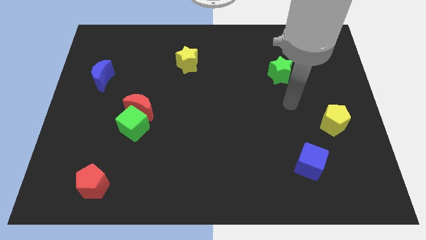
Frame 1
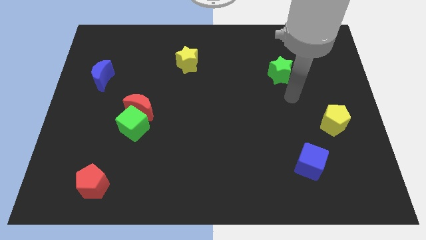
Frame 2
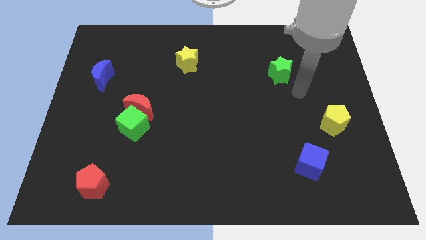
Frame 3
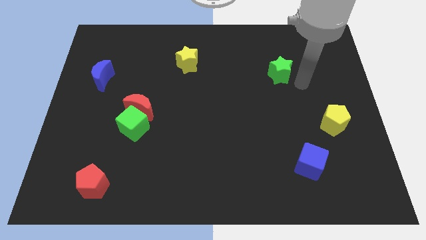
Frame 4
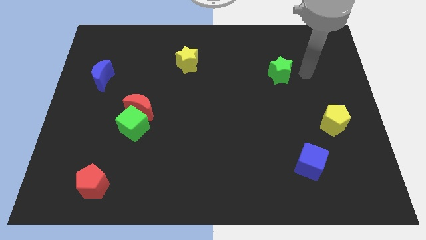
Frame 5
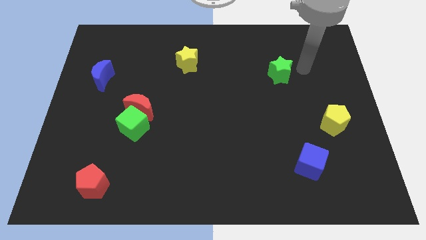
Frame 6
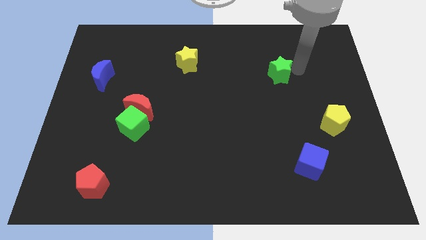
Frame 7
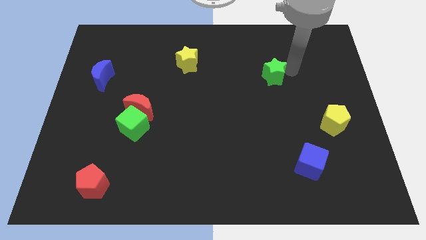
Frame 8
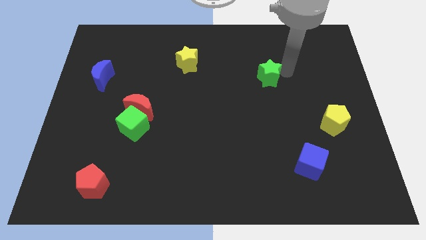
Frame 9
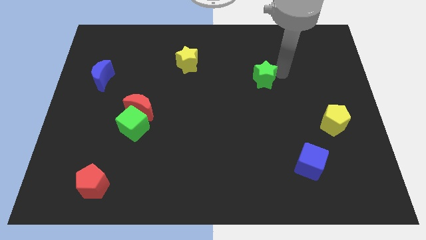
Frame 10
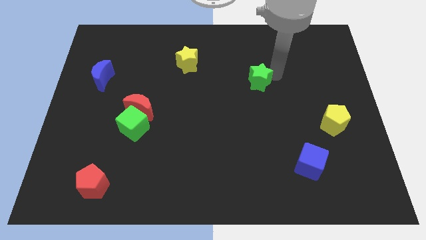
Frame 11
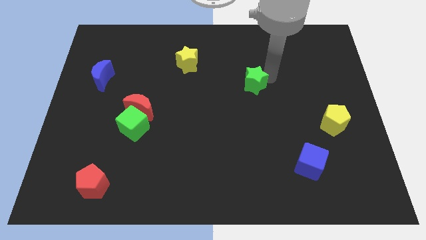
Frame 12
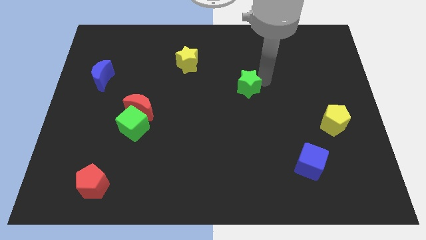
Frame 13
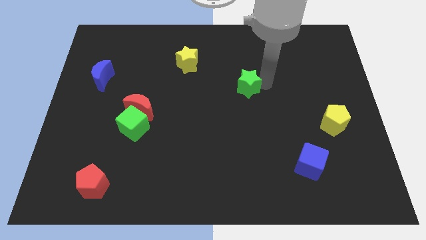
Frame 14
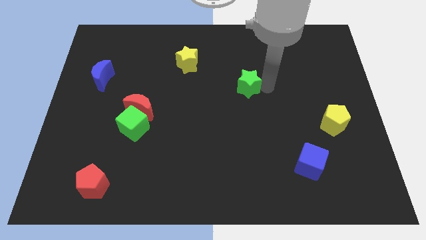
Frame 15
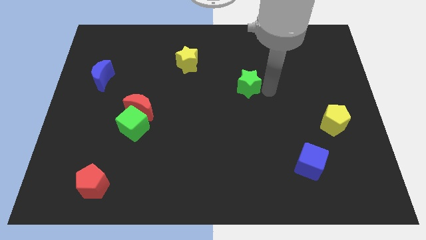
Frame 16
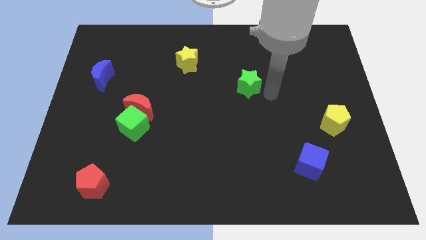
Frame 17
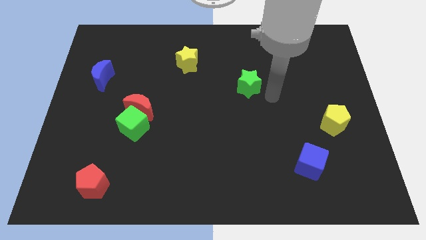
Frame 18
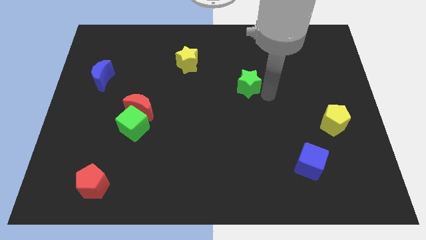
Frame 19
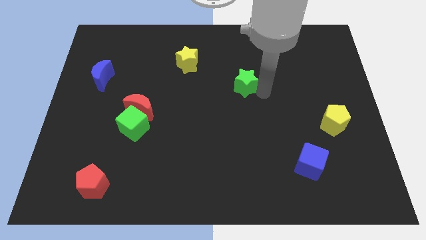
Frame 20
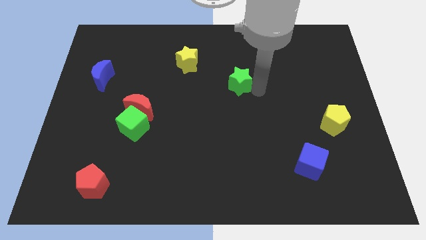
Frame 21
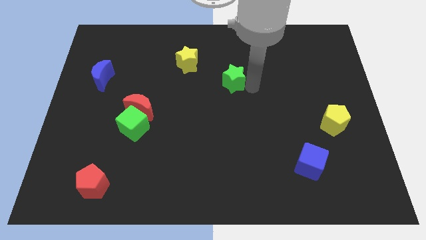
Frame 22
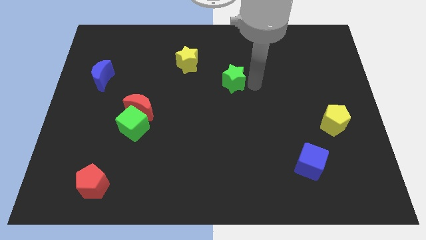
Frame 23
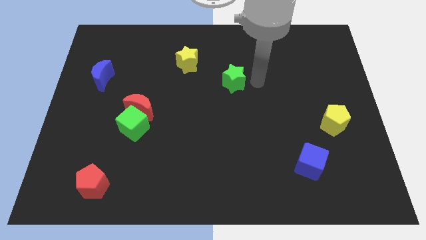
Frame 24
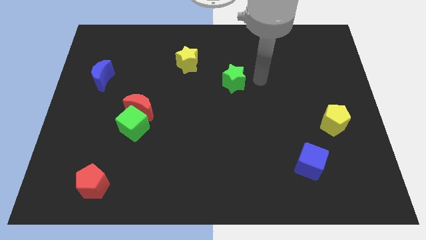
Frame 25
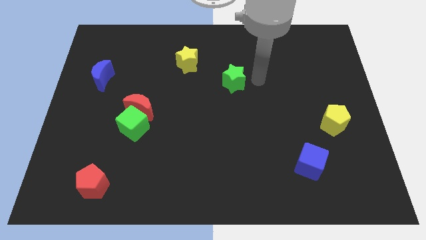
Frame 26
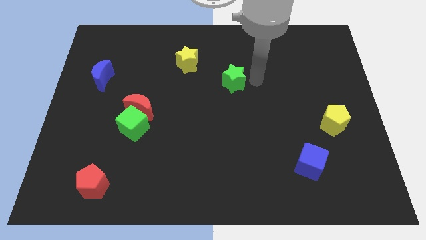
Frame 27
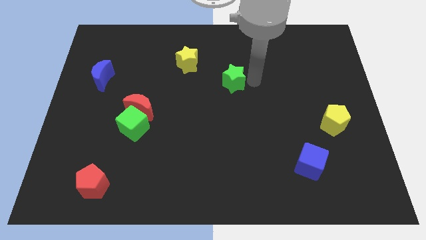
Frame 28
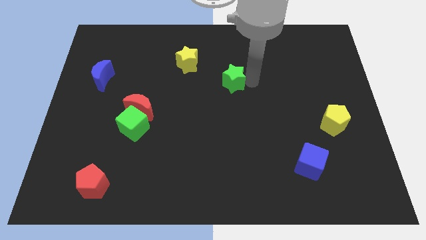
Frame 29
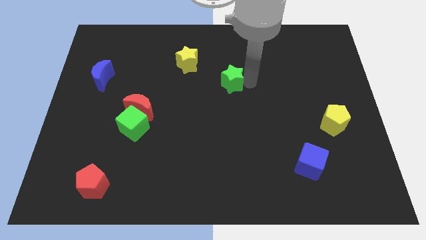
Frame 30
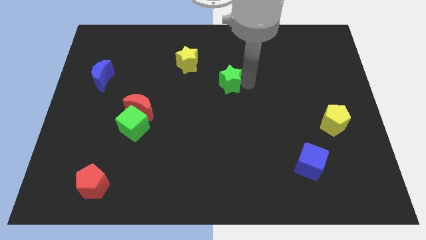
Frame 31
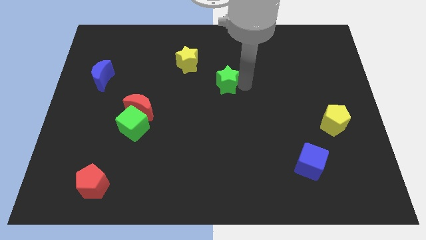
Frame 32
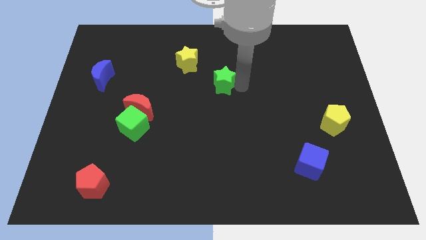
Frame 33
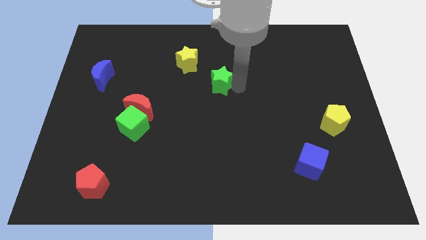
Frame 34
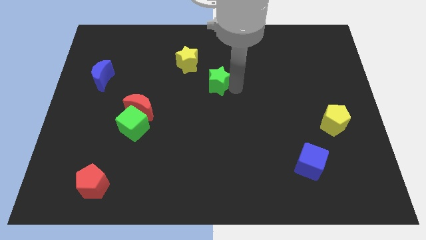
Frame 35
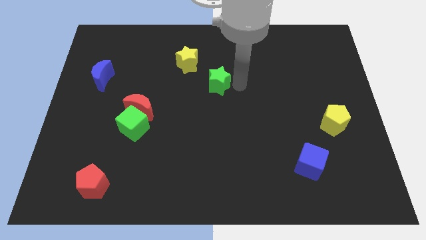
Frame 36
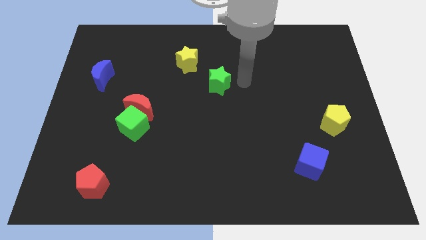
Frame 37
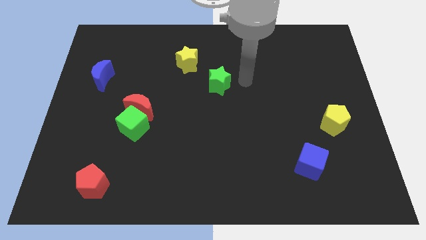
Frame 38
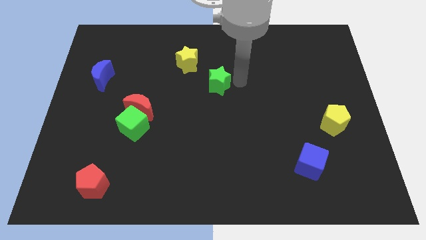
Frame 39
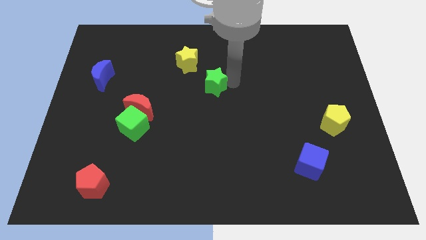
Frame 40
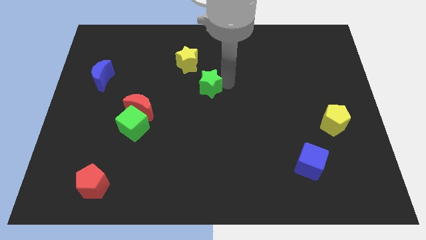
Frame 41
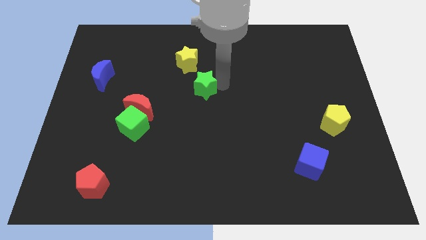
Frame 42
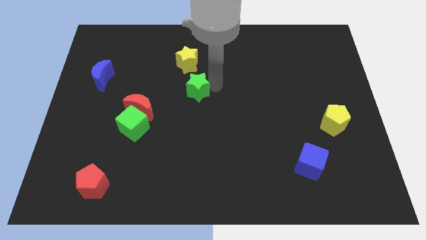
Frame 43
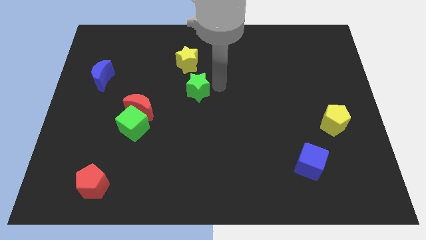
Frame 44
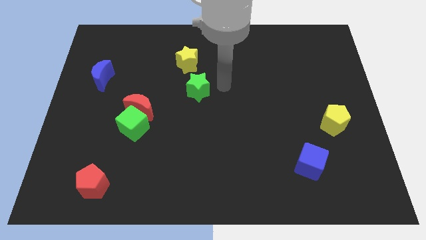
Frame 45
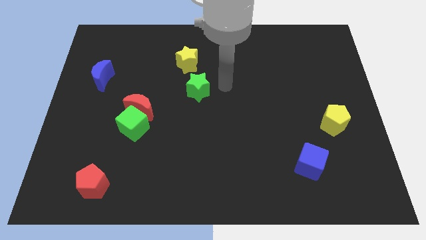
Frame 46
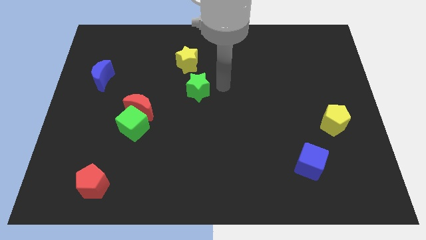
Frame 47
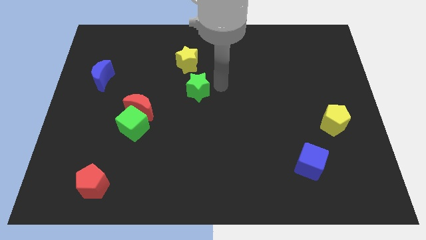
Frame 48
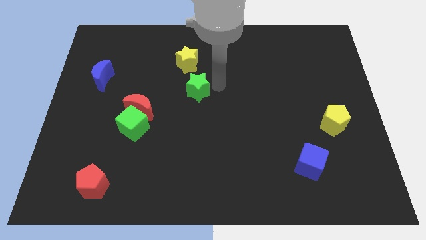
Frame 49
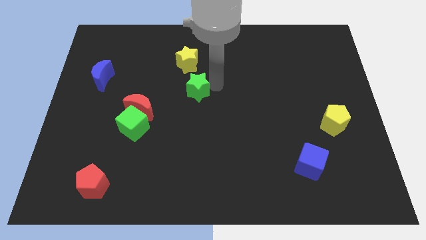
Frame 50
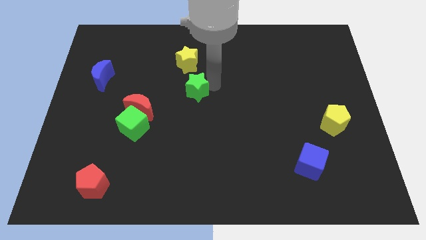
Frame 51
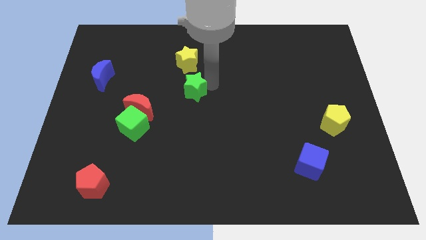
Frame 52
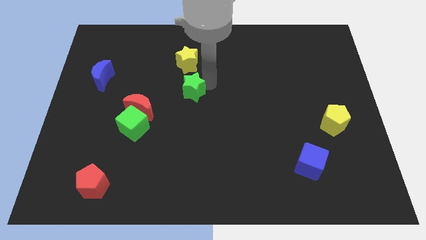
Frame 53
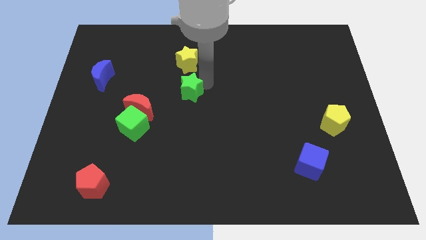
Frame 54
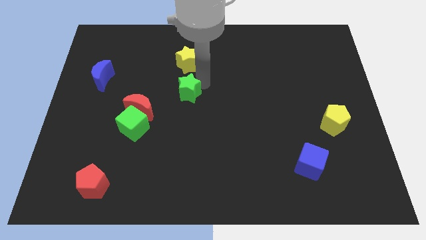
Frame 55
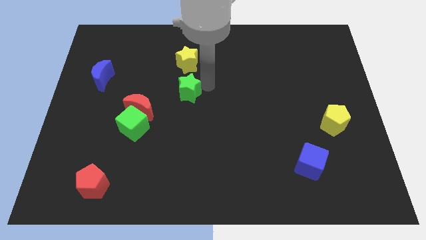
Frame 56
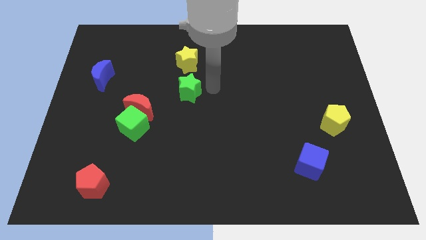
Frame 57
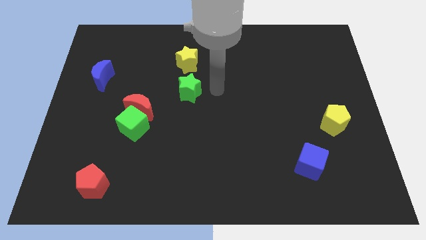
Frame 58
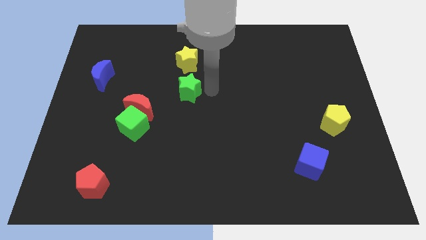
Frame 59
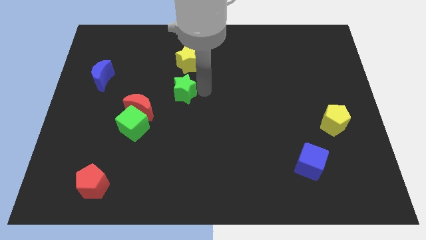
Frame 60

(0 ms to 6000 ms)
push the green star to the top right of the red moon

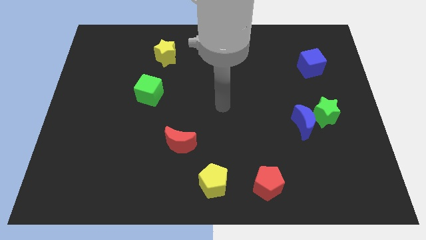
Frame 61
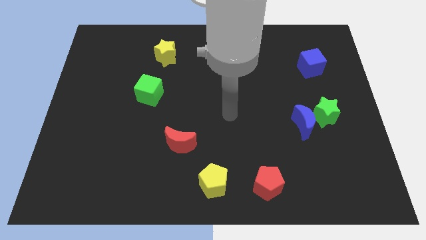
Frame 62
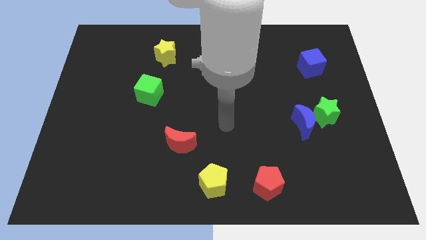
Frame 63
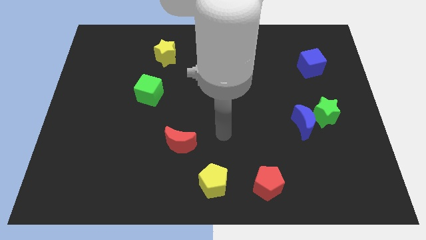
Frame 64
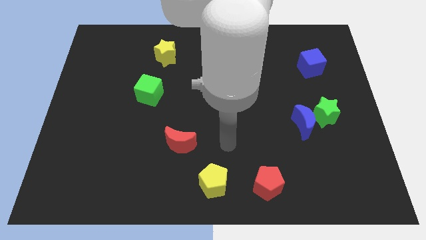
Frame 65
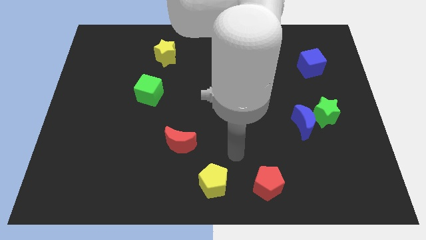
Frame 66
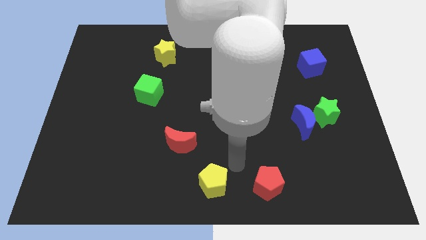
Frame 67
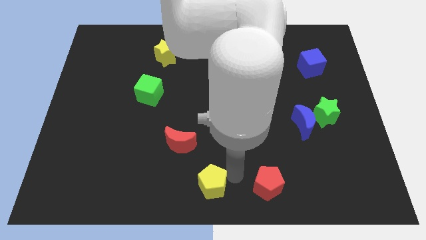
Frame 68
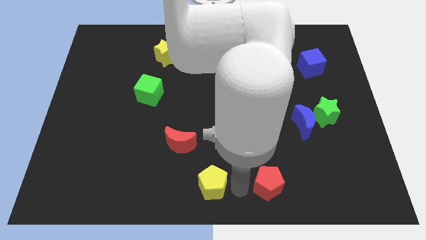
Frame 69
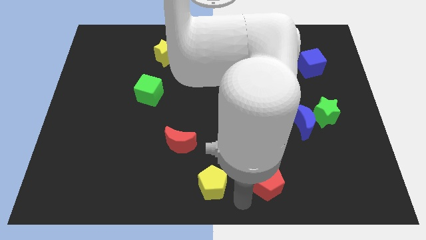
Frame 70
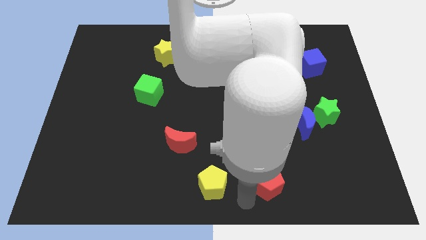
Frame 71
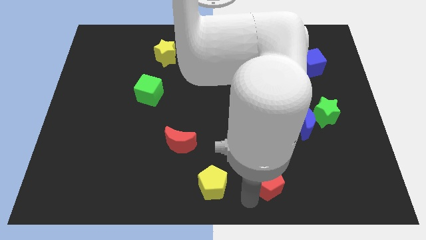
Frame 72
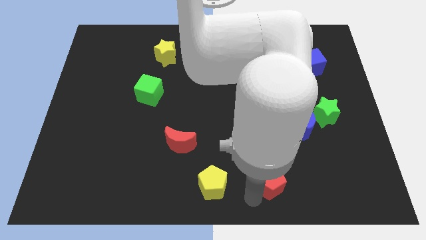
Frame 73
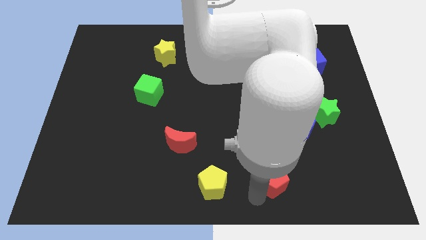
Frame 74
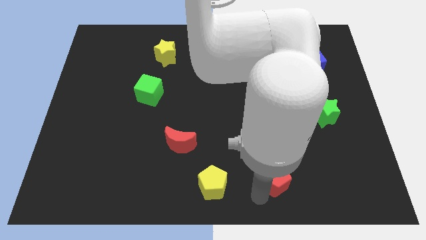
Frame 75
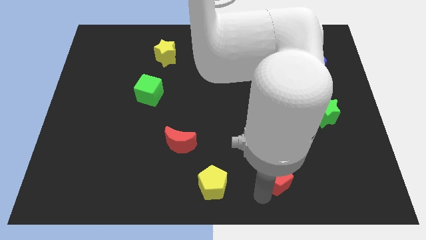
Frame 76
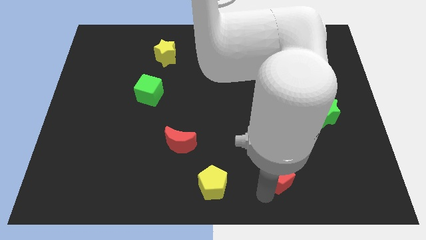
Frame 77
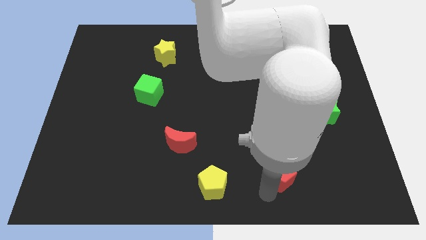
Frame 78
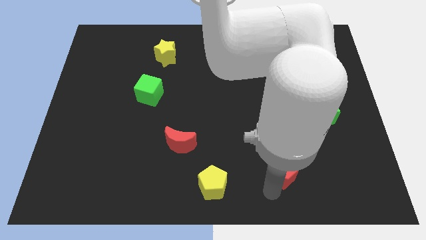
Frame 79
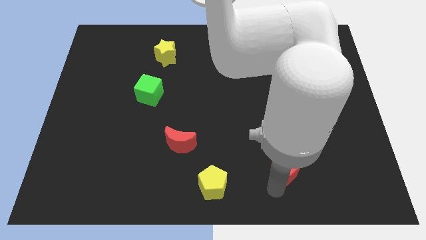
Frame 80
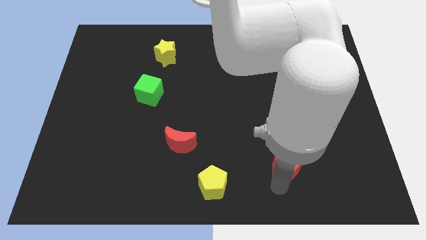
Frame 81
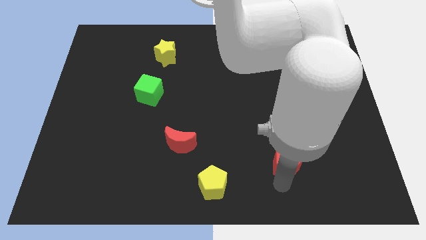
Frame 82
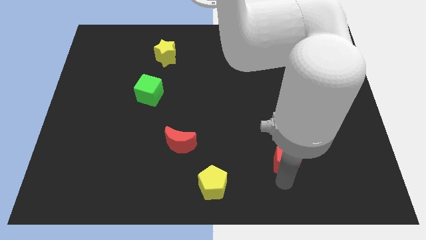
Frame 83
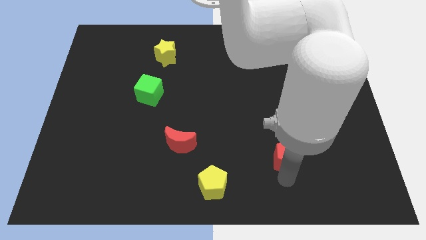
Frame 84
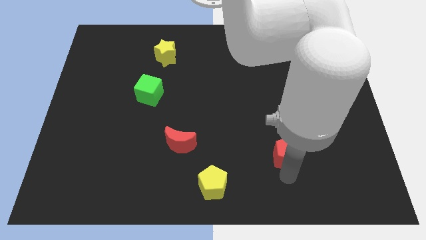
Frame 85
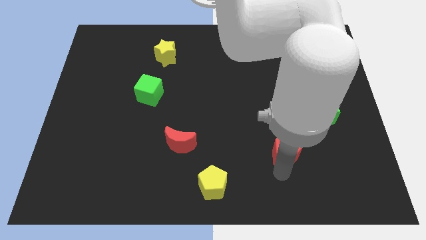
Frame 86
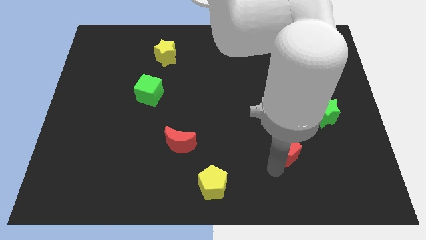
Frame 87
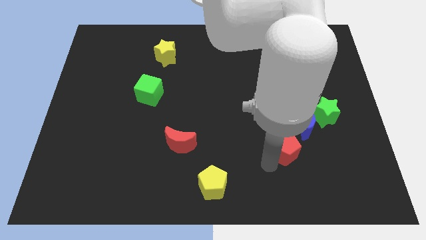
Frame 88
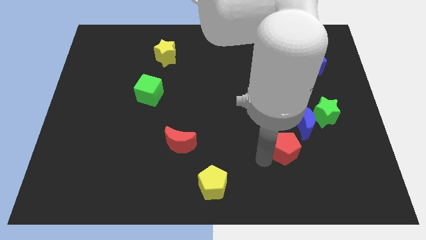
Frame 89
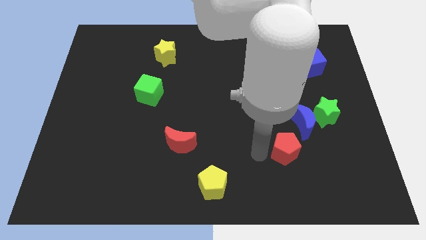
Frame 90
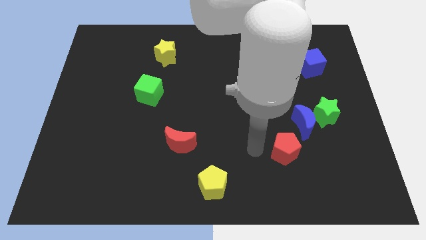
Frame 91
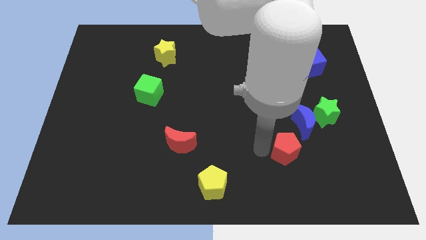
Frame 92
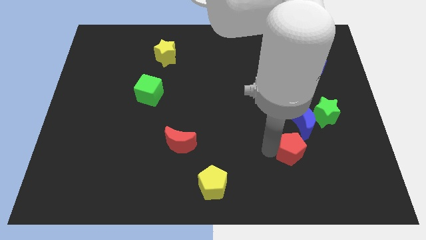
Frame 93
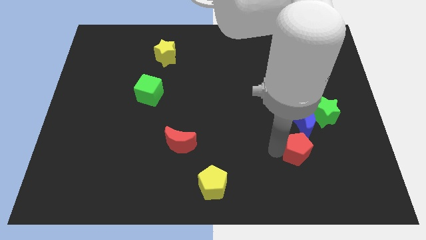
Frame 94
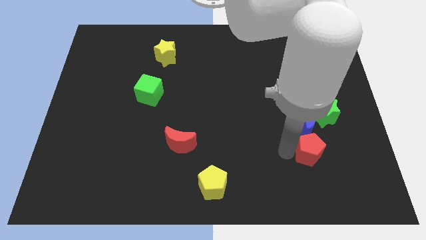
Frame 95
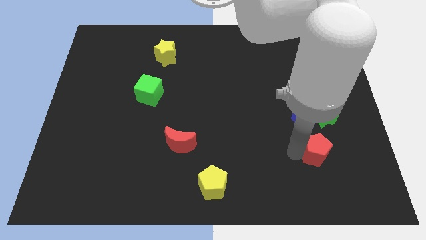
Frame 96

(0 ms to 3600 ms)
push the red pentagon diagonally down and to the right of the blue moon
